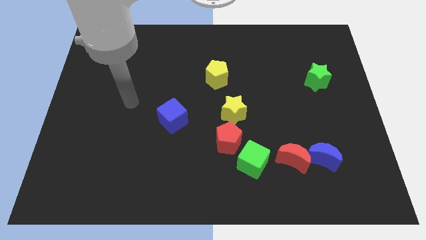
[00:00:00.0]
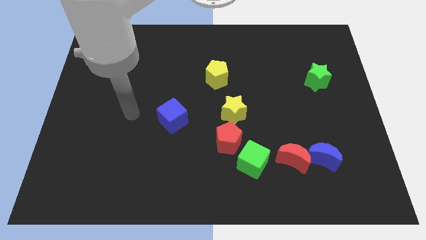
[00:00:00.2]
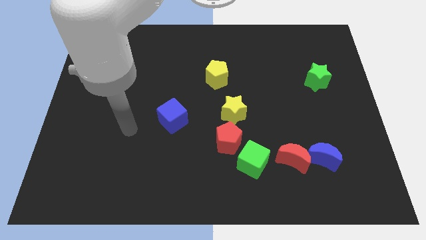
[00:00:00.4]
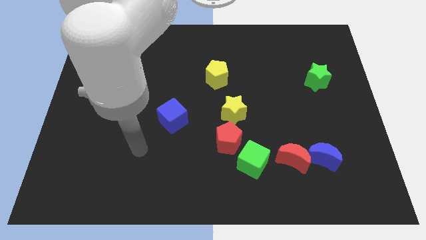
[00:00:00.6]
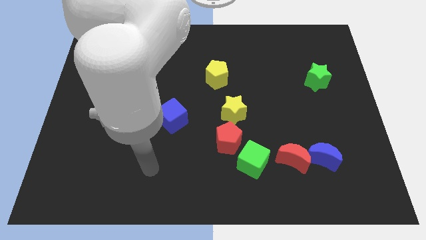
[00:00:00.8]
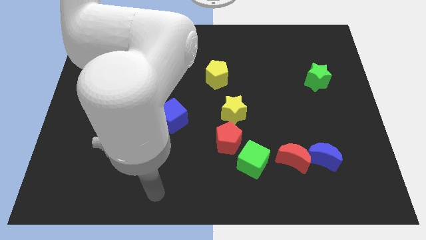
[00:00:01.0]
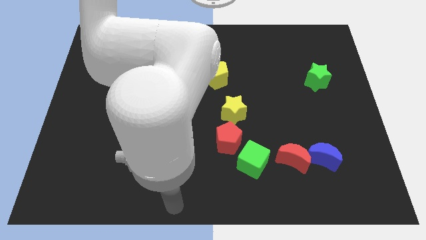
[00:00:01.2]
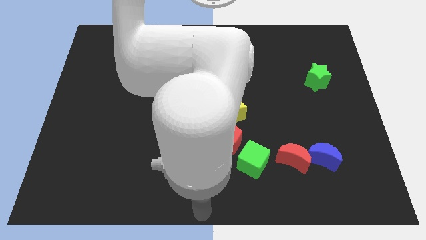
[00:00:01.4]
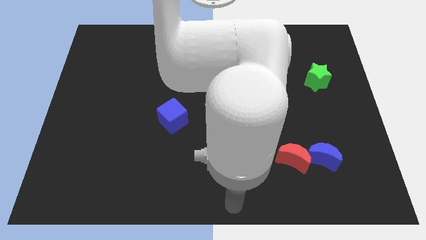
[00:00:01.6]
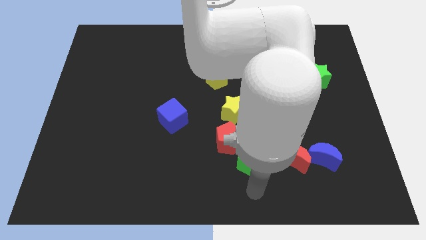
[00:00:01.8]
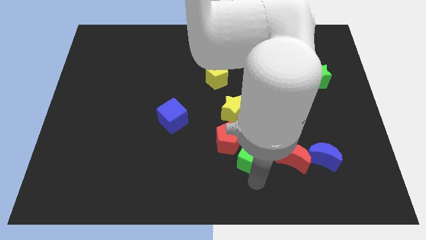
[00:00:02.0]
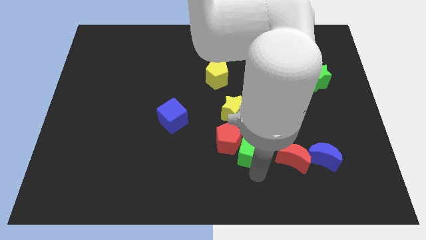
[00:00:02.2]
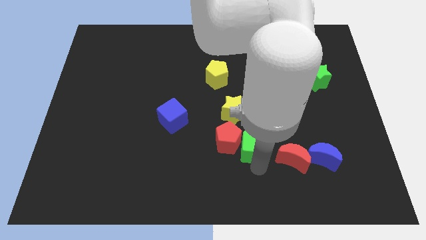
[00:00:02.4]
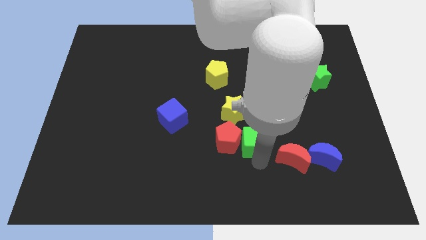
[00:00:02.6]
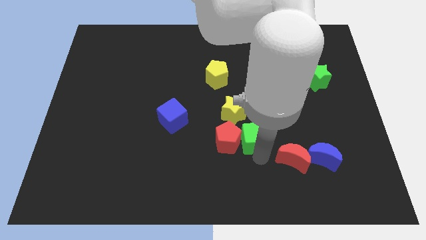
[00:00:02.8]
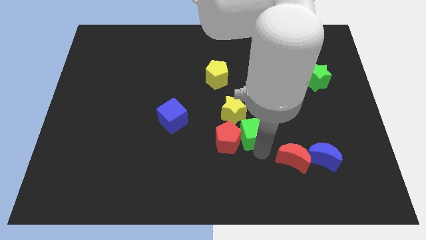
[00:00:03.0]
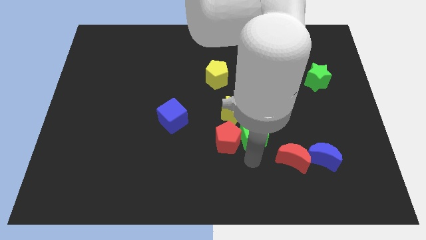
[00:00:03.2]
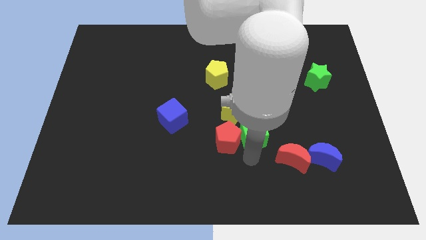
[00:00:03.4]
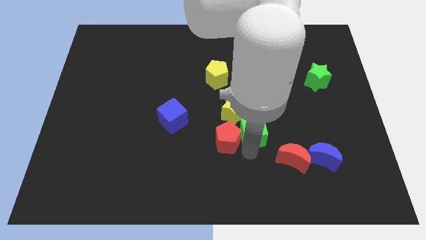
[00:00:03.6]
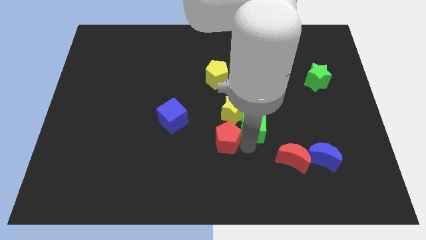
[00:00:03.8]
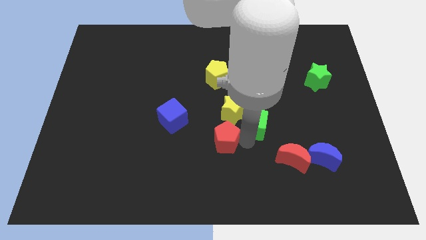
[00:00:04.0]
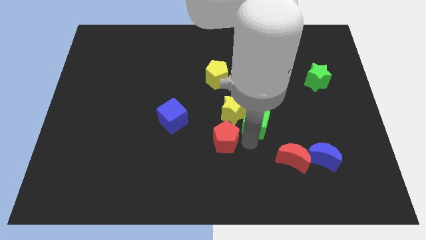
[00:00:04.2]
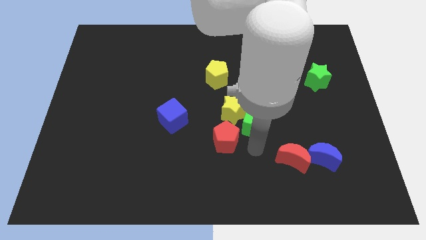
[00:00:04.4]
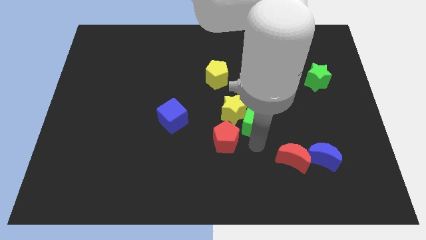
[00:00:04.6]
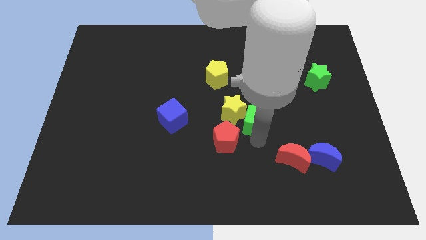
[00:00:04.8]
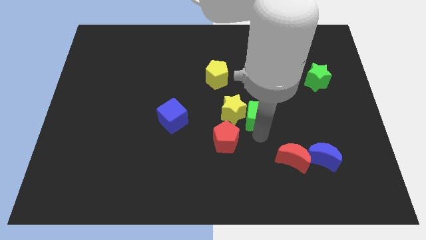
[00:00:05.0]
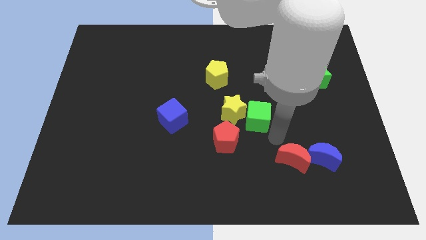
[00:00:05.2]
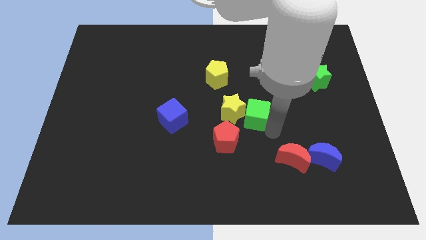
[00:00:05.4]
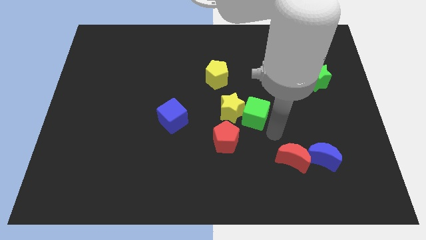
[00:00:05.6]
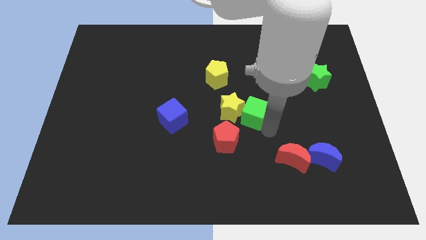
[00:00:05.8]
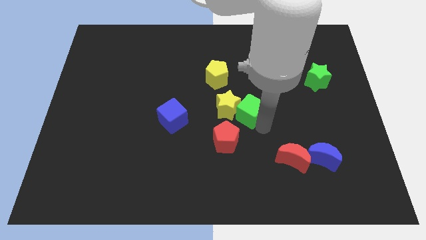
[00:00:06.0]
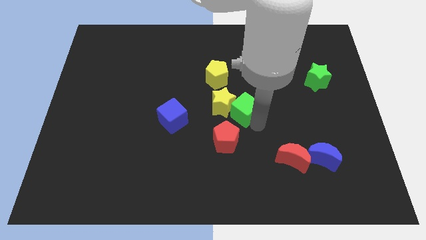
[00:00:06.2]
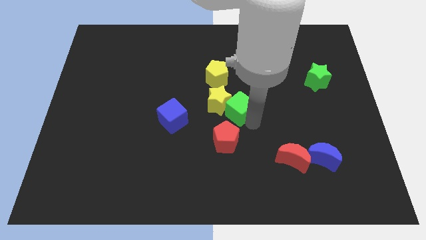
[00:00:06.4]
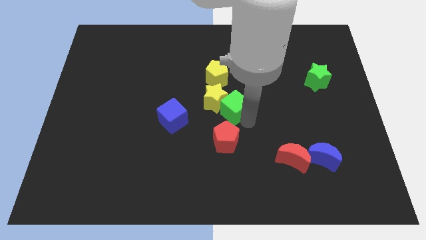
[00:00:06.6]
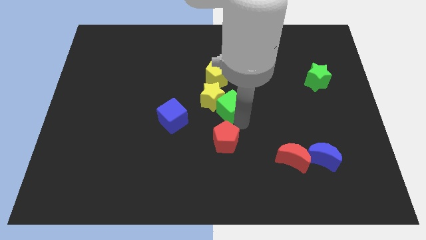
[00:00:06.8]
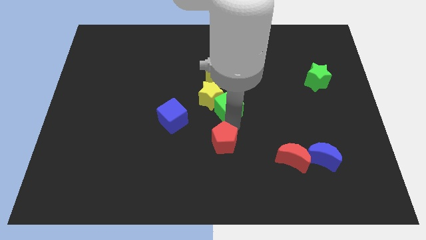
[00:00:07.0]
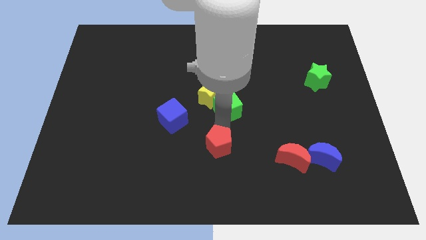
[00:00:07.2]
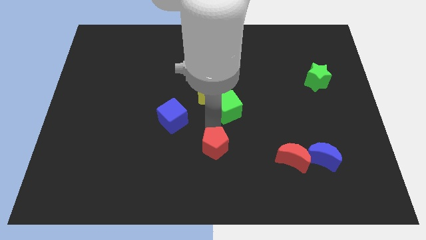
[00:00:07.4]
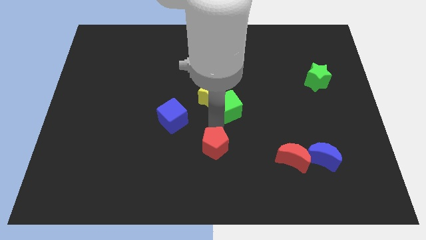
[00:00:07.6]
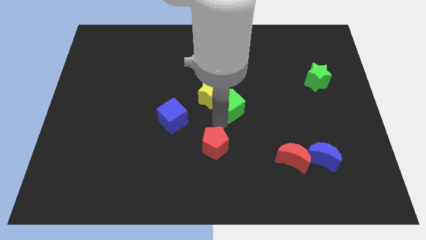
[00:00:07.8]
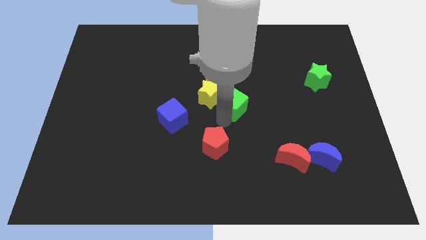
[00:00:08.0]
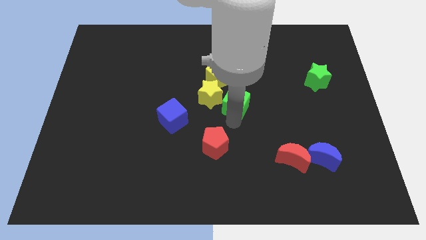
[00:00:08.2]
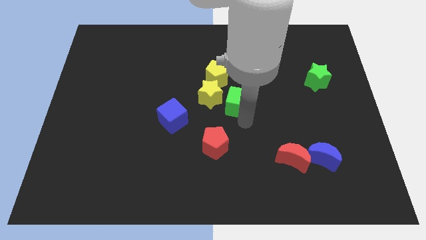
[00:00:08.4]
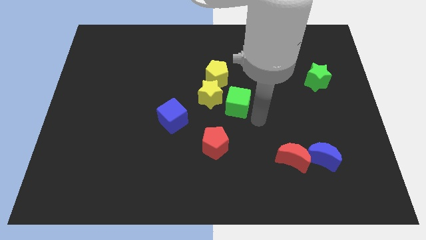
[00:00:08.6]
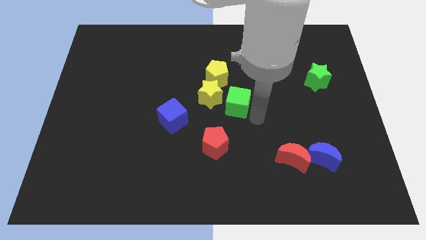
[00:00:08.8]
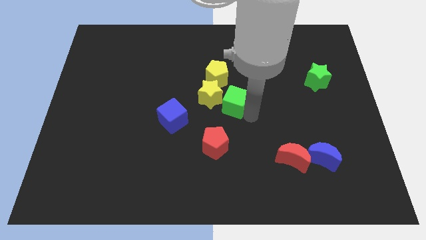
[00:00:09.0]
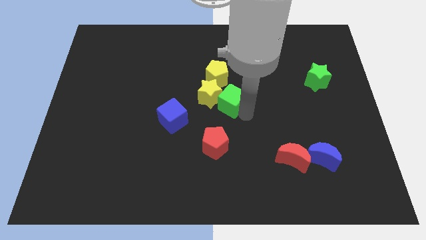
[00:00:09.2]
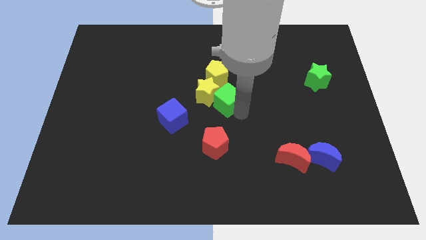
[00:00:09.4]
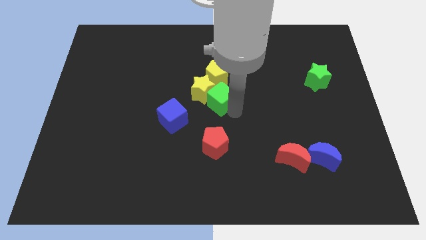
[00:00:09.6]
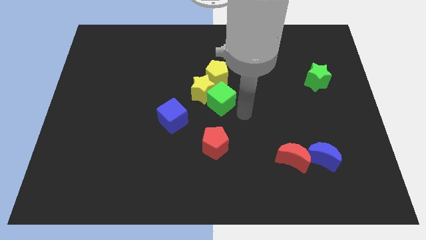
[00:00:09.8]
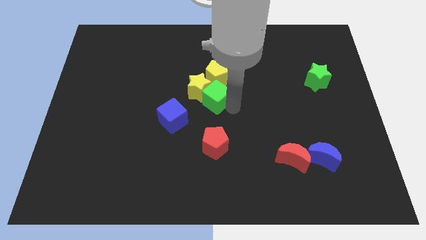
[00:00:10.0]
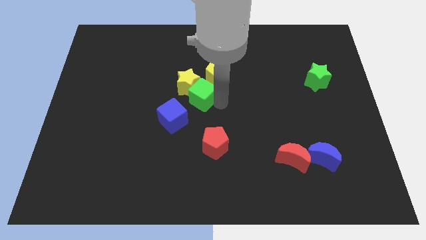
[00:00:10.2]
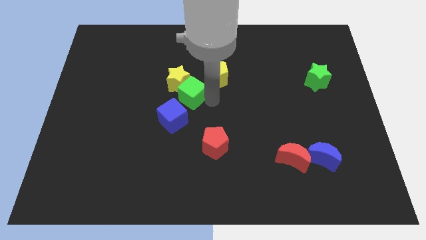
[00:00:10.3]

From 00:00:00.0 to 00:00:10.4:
move the green cube to the top side of the blue cube

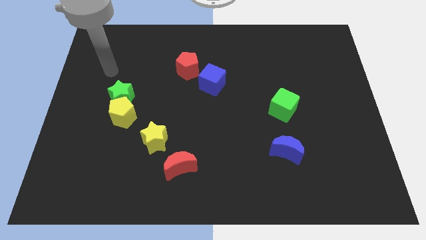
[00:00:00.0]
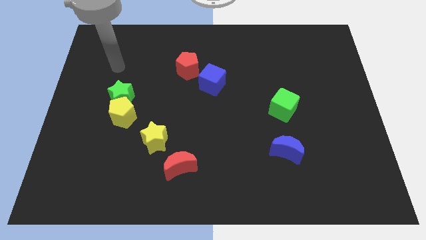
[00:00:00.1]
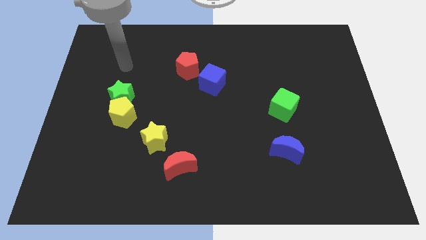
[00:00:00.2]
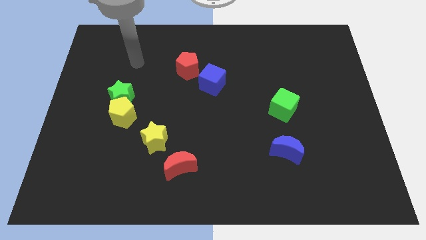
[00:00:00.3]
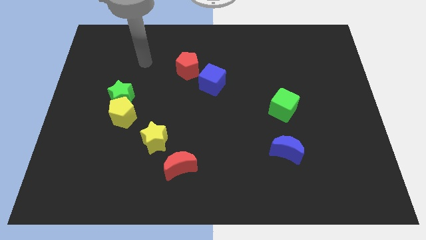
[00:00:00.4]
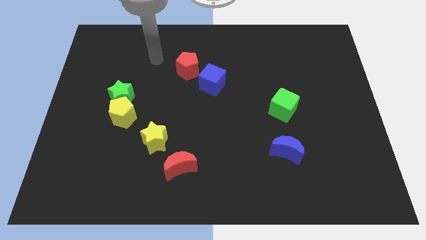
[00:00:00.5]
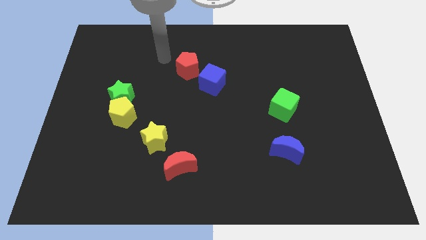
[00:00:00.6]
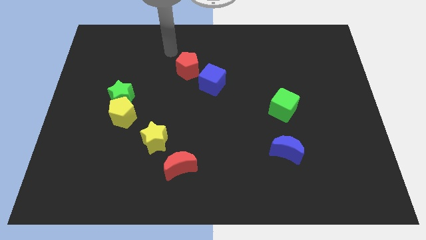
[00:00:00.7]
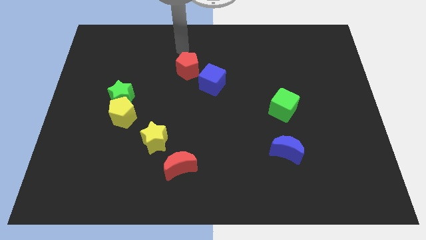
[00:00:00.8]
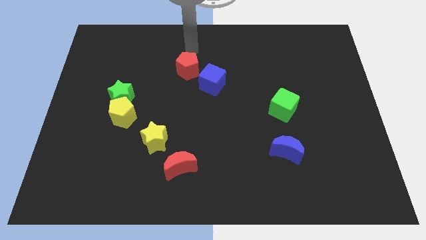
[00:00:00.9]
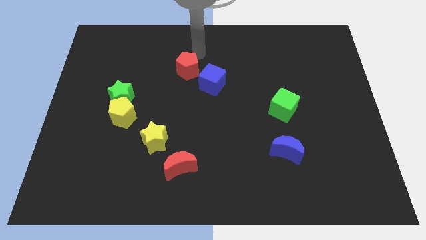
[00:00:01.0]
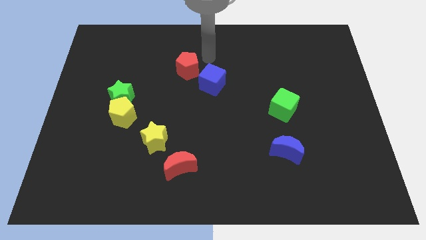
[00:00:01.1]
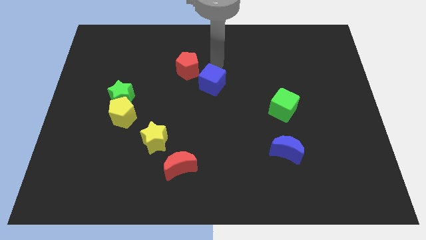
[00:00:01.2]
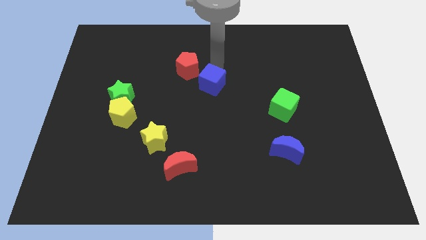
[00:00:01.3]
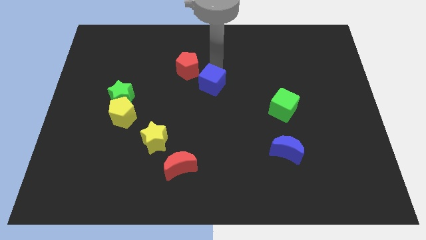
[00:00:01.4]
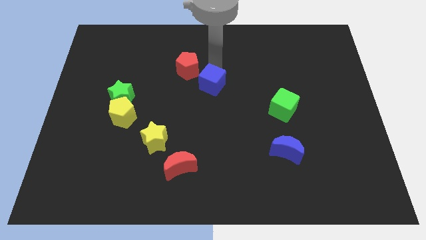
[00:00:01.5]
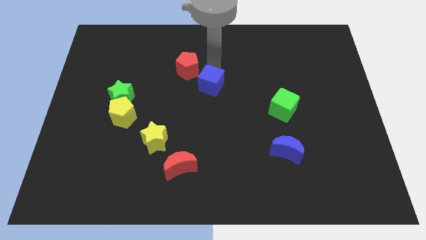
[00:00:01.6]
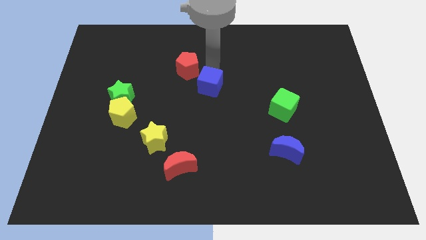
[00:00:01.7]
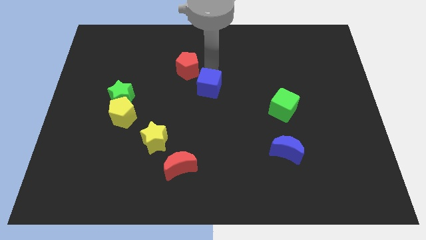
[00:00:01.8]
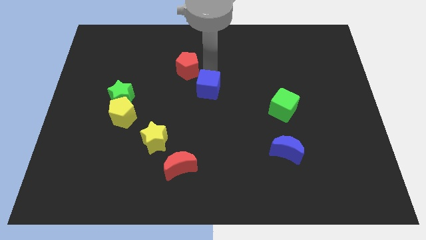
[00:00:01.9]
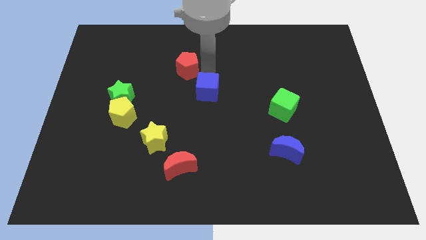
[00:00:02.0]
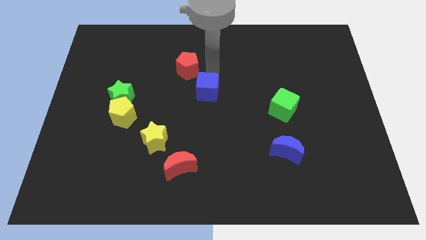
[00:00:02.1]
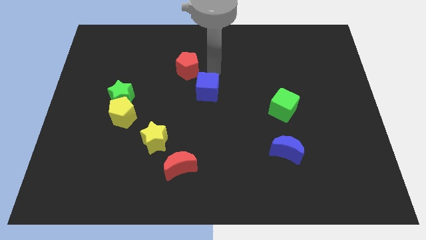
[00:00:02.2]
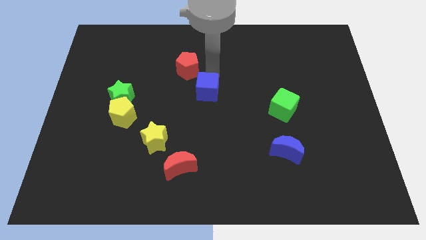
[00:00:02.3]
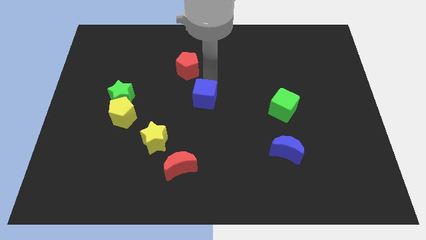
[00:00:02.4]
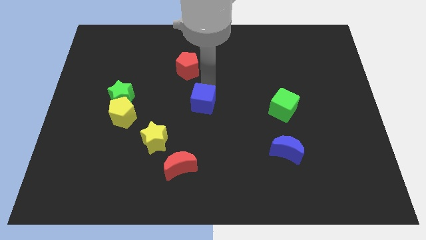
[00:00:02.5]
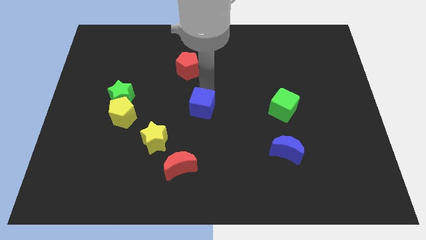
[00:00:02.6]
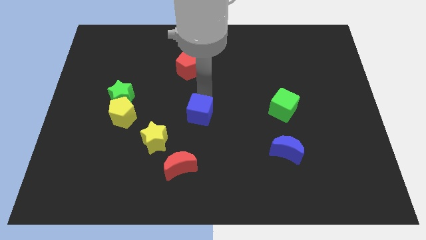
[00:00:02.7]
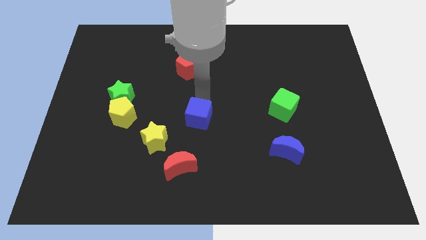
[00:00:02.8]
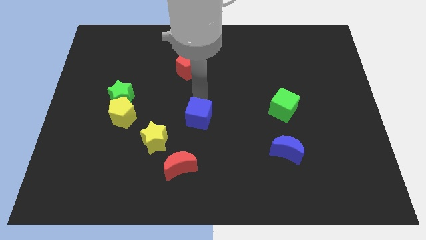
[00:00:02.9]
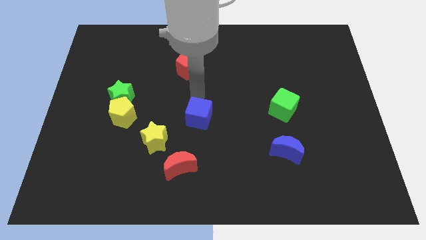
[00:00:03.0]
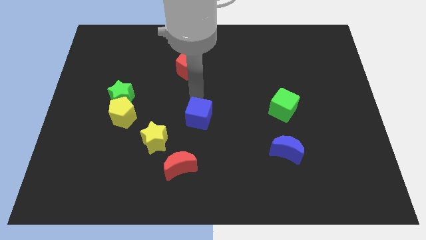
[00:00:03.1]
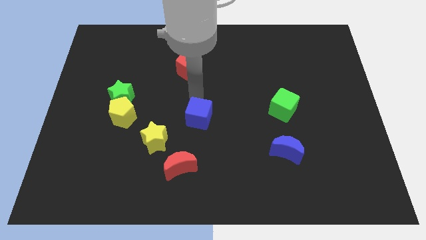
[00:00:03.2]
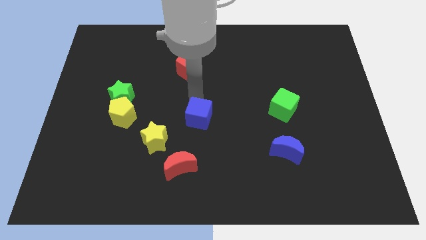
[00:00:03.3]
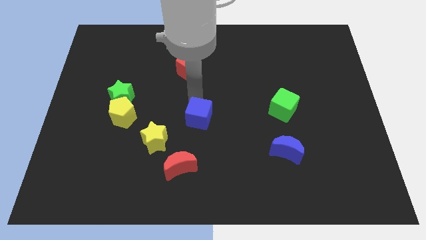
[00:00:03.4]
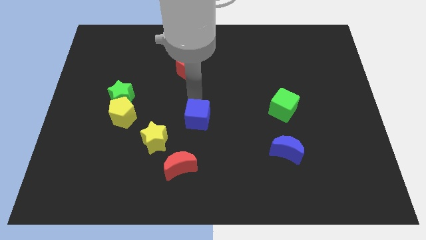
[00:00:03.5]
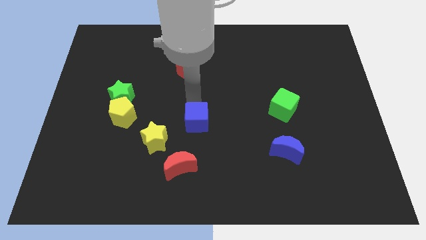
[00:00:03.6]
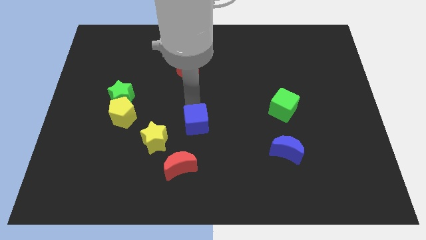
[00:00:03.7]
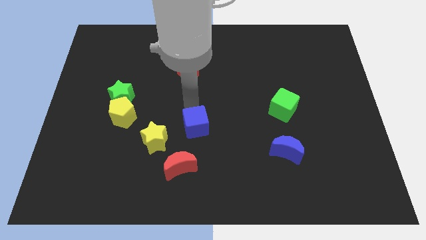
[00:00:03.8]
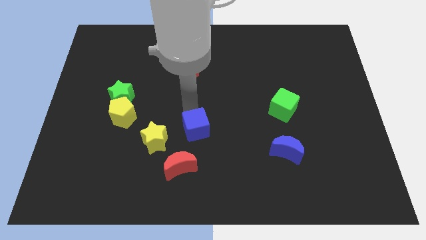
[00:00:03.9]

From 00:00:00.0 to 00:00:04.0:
put the blue cube to the top right of the red moon
